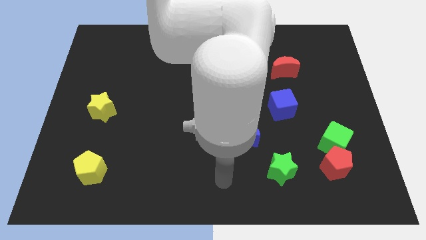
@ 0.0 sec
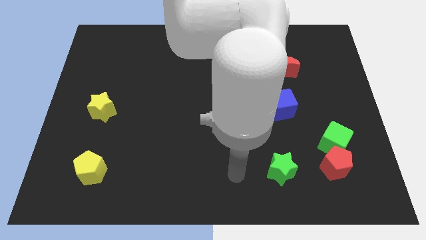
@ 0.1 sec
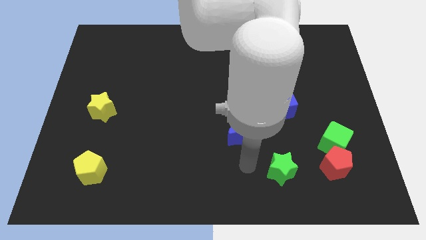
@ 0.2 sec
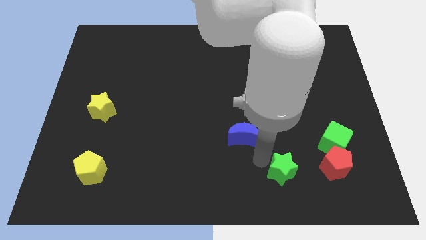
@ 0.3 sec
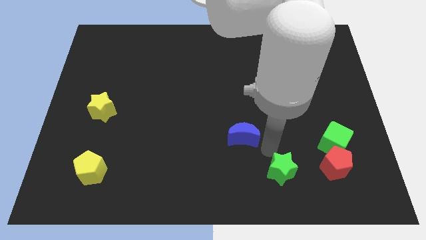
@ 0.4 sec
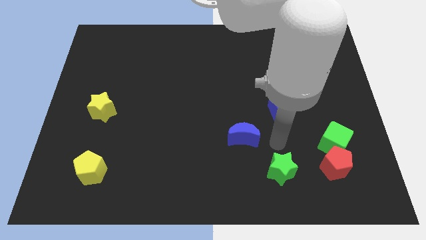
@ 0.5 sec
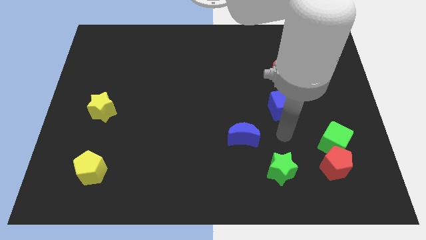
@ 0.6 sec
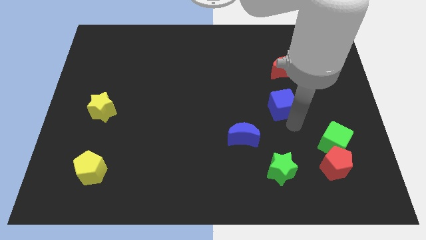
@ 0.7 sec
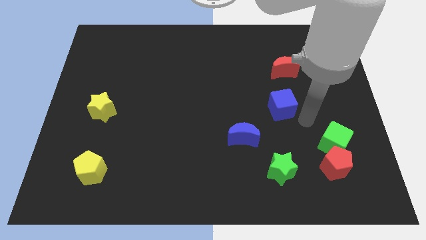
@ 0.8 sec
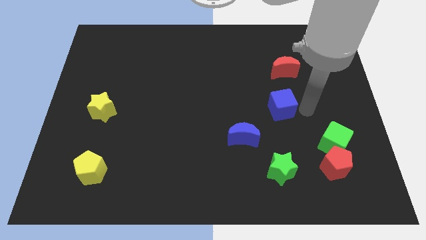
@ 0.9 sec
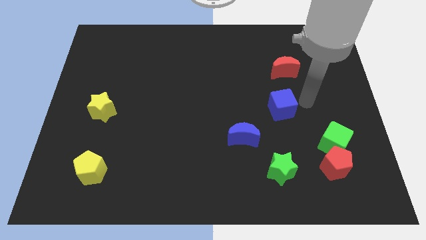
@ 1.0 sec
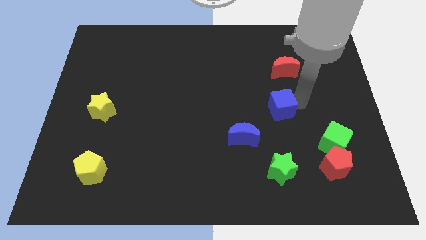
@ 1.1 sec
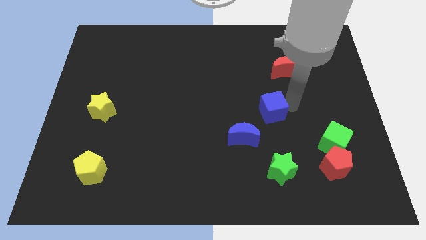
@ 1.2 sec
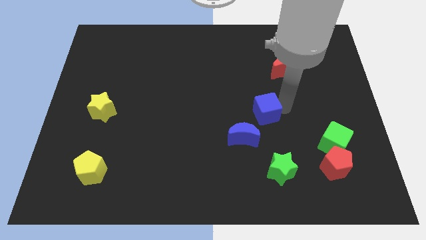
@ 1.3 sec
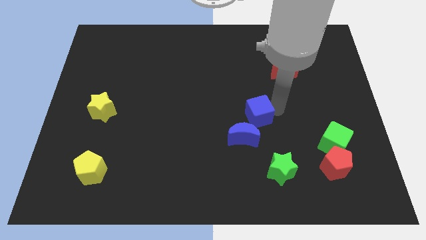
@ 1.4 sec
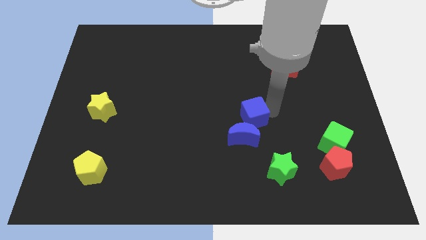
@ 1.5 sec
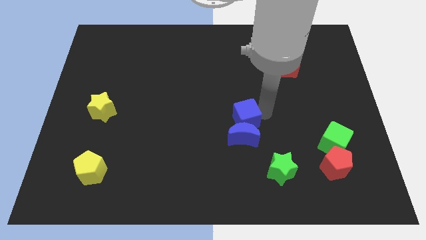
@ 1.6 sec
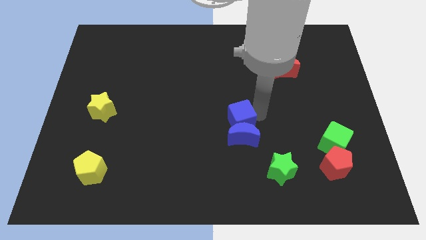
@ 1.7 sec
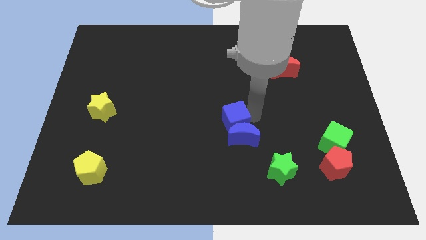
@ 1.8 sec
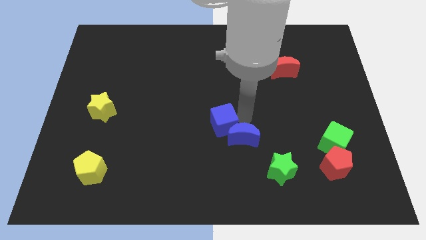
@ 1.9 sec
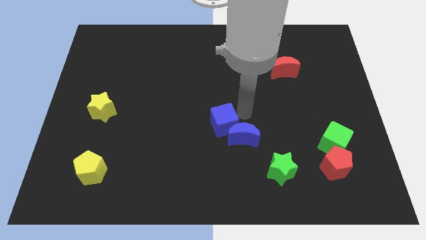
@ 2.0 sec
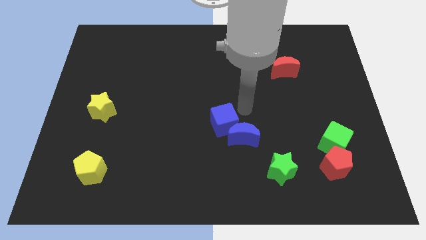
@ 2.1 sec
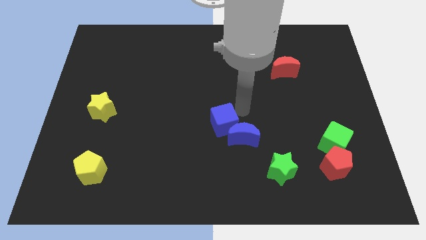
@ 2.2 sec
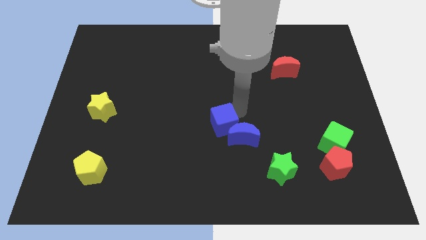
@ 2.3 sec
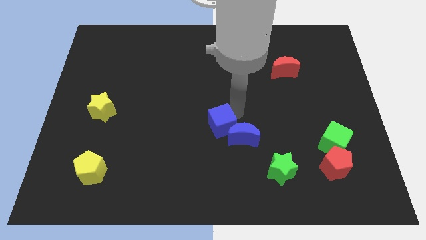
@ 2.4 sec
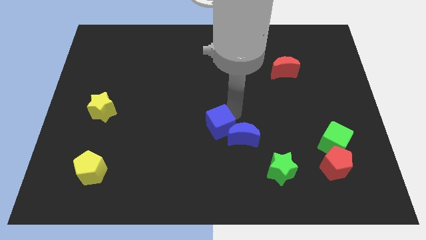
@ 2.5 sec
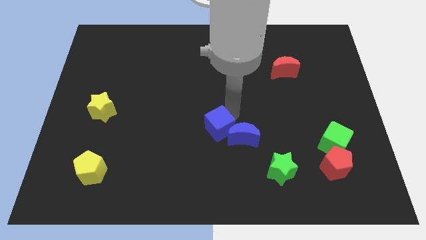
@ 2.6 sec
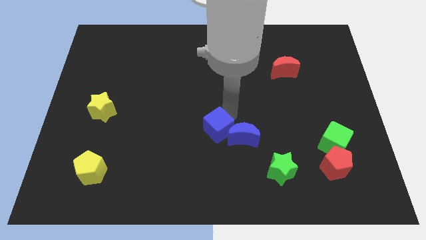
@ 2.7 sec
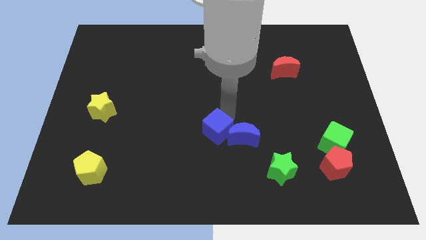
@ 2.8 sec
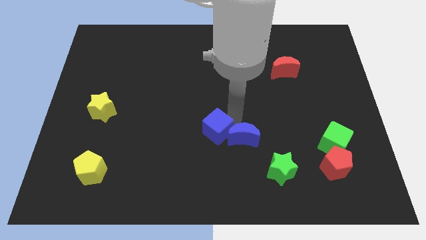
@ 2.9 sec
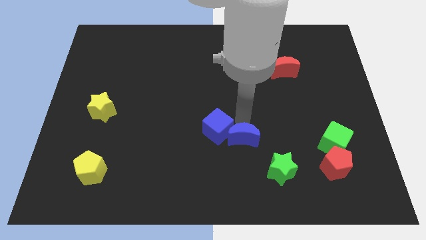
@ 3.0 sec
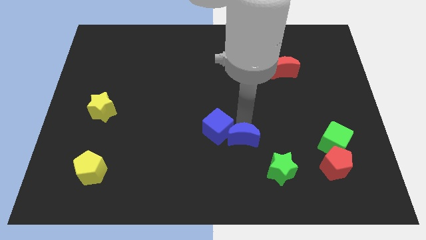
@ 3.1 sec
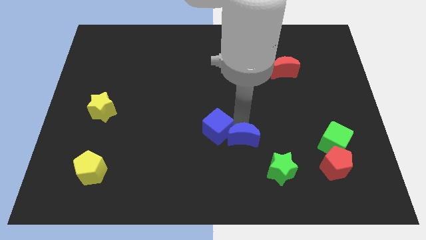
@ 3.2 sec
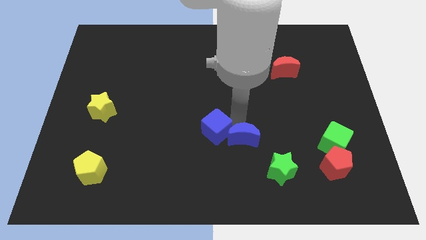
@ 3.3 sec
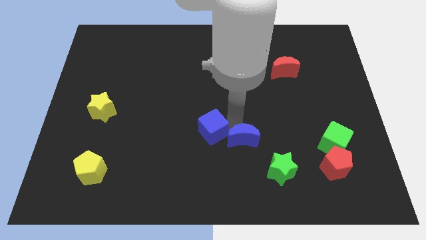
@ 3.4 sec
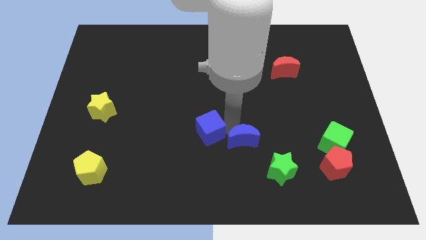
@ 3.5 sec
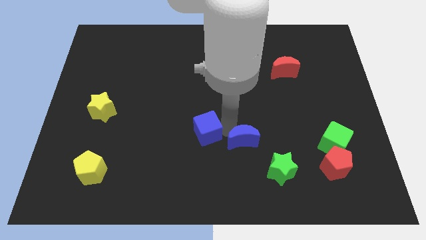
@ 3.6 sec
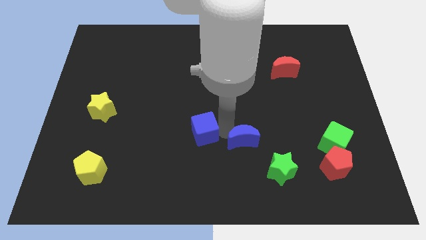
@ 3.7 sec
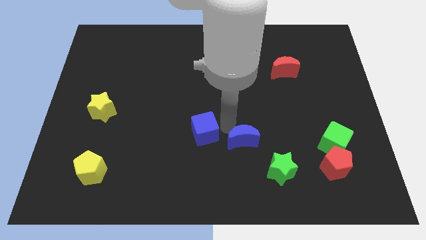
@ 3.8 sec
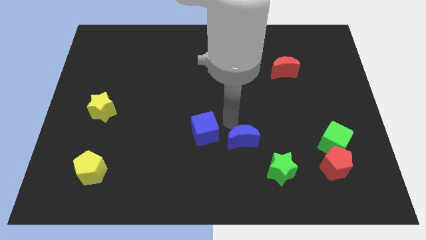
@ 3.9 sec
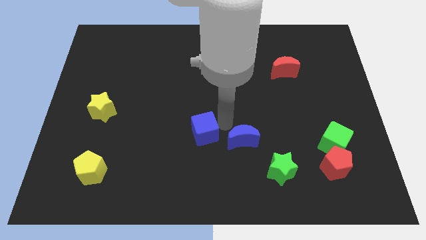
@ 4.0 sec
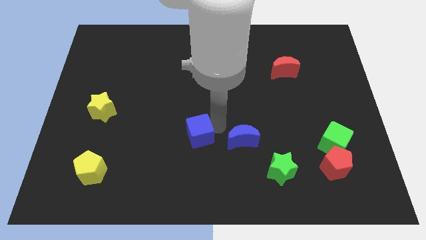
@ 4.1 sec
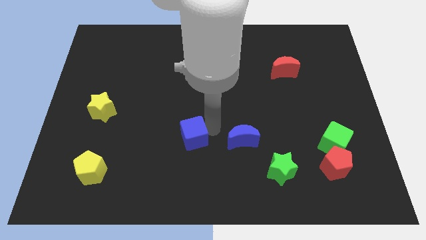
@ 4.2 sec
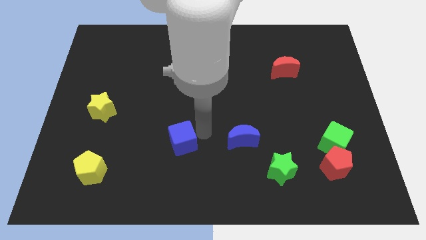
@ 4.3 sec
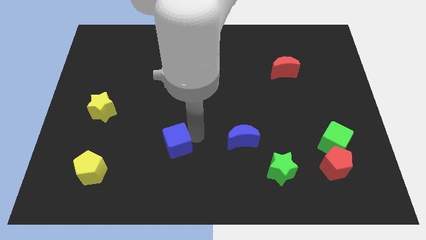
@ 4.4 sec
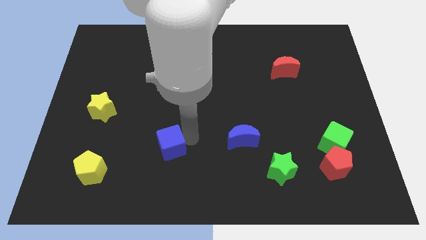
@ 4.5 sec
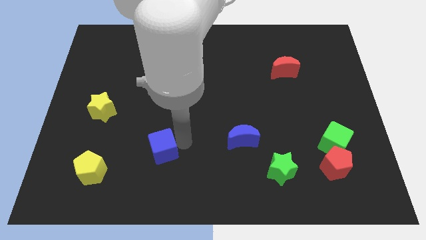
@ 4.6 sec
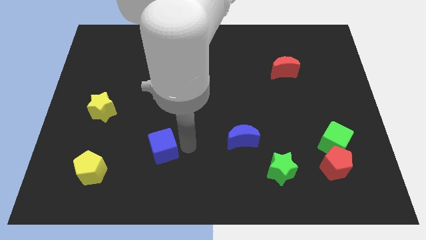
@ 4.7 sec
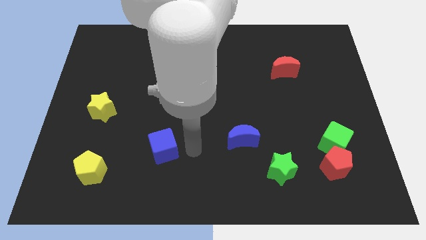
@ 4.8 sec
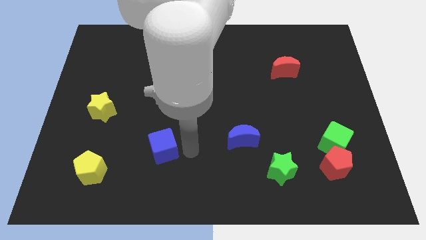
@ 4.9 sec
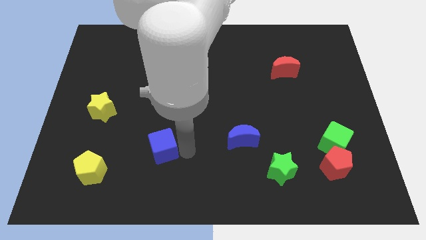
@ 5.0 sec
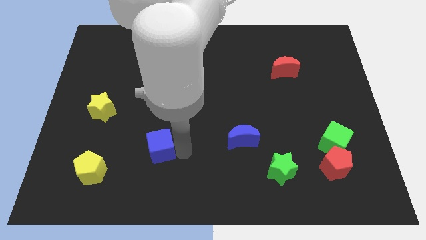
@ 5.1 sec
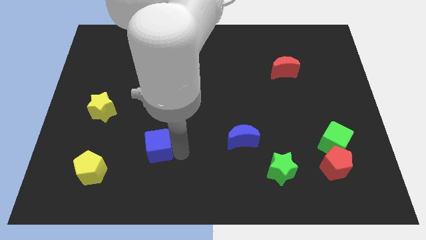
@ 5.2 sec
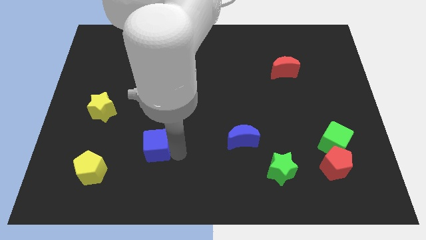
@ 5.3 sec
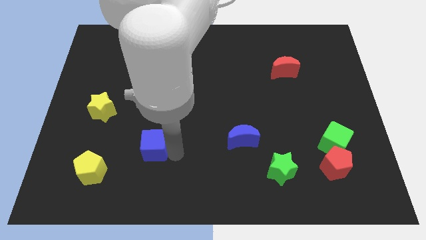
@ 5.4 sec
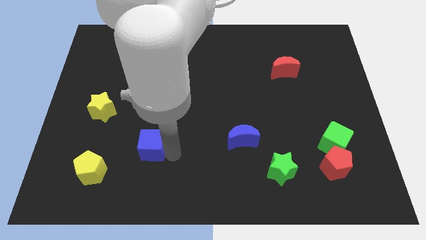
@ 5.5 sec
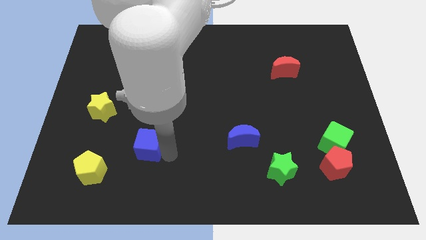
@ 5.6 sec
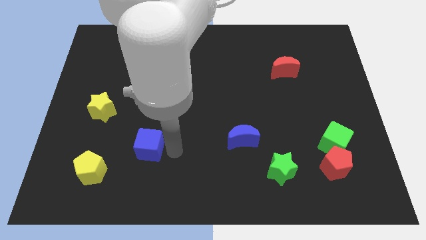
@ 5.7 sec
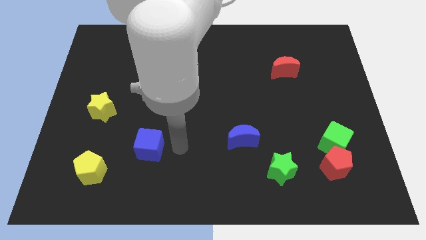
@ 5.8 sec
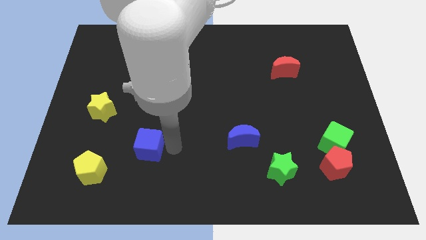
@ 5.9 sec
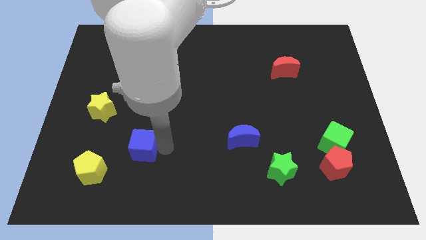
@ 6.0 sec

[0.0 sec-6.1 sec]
push the blue cube diagonally up and to the right of the yellow pentagon

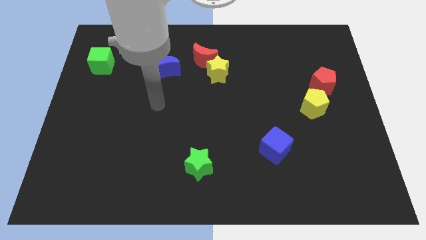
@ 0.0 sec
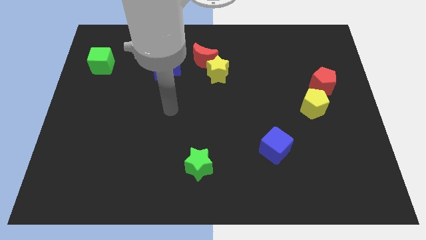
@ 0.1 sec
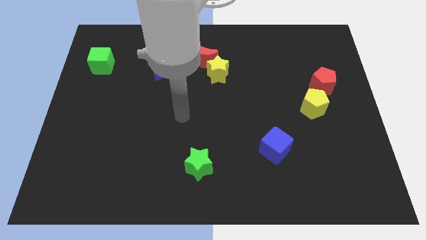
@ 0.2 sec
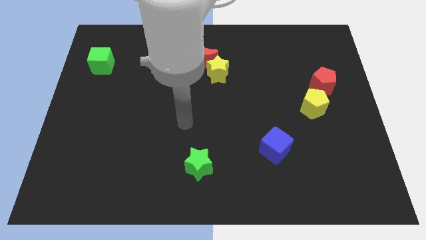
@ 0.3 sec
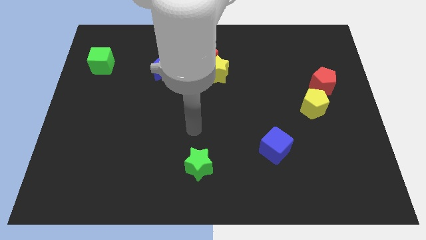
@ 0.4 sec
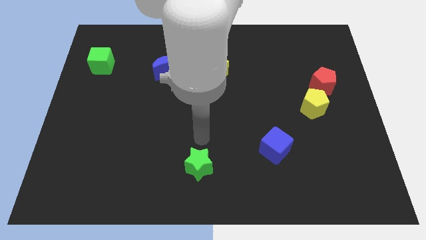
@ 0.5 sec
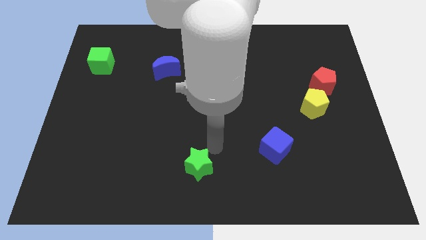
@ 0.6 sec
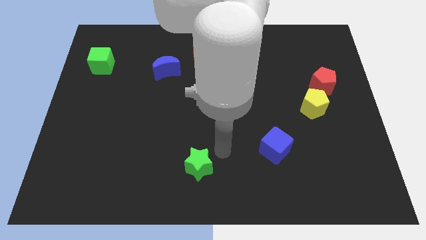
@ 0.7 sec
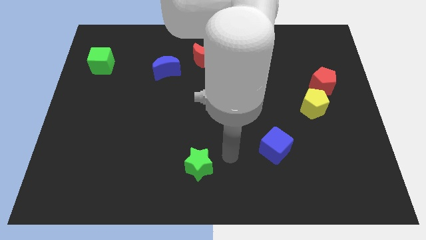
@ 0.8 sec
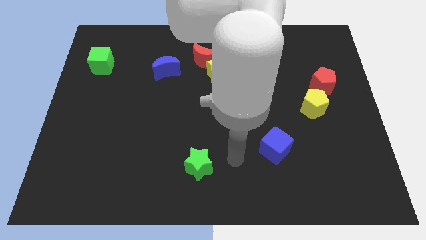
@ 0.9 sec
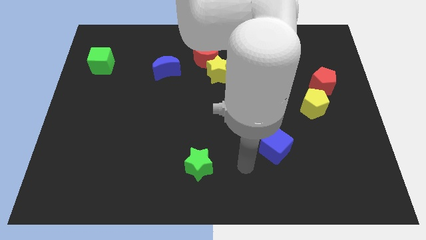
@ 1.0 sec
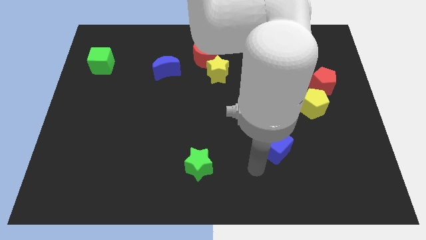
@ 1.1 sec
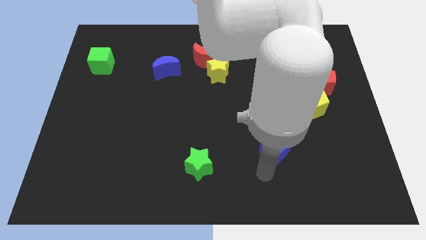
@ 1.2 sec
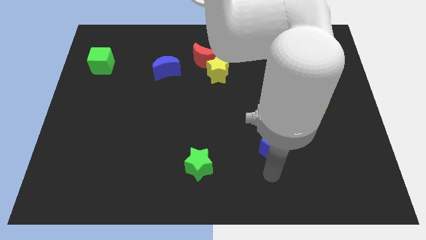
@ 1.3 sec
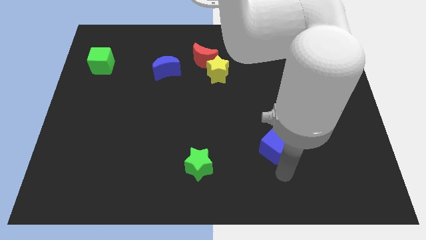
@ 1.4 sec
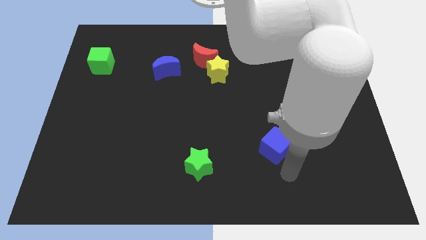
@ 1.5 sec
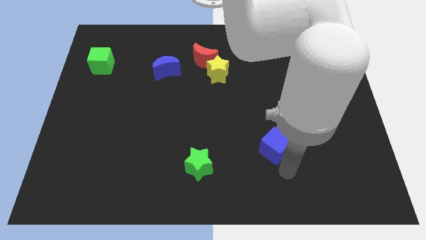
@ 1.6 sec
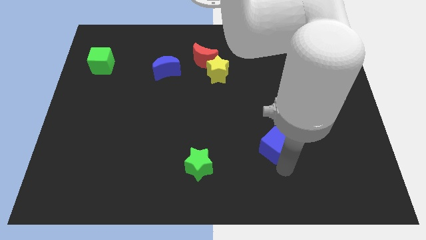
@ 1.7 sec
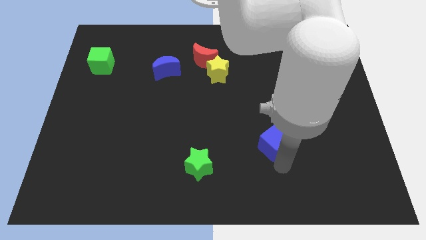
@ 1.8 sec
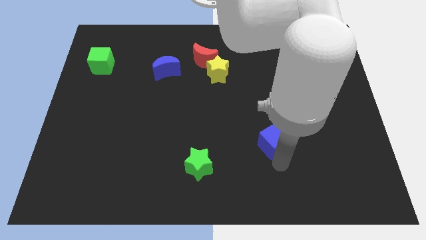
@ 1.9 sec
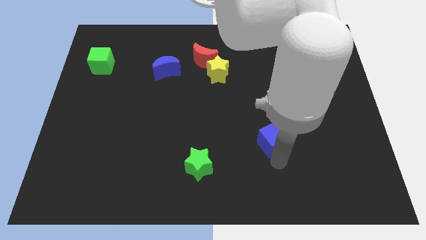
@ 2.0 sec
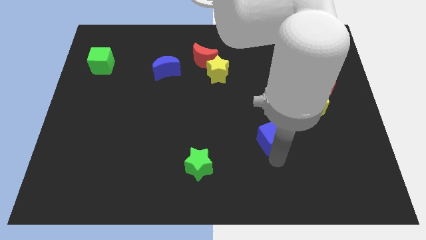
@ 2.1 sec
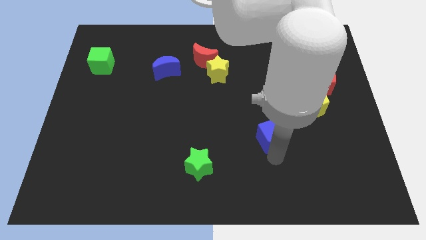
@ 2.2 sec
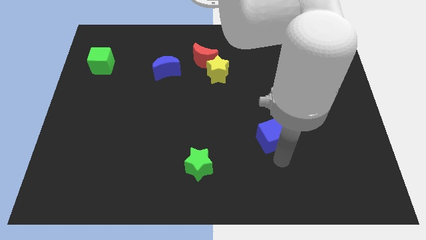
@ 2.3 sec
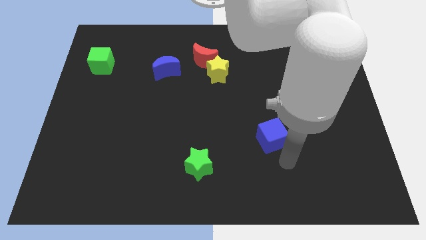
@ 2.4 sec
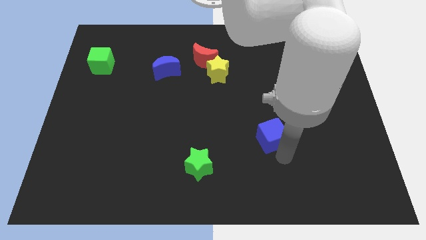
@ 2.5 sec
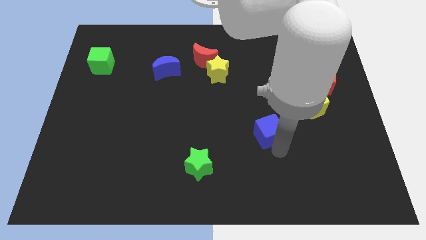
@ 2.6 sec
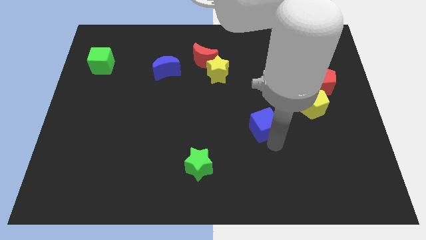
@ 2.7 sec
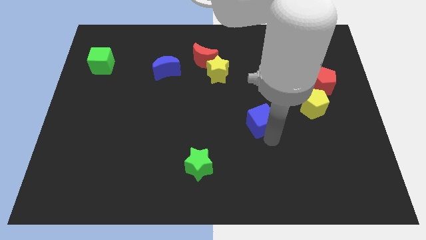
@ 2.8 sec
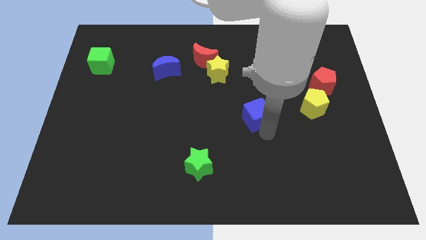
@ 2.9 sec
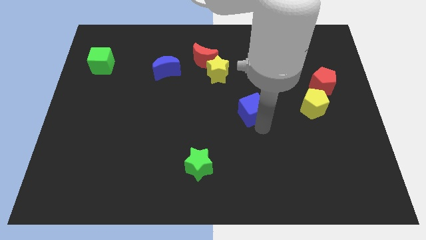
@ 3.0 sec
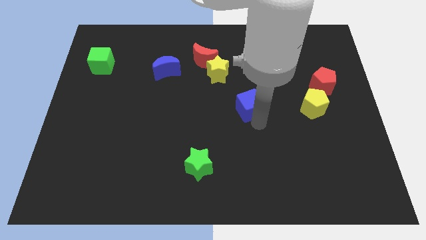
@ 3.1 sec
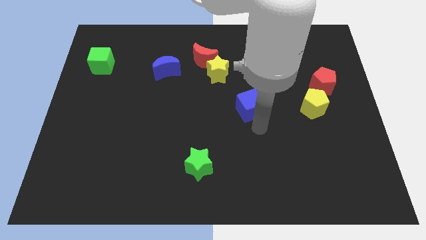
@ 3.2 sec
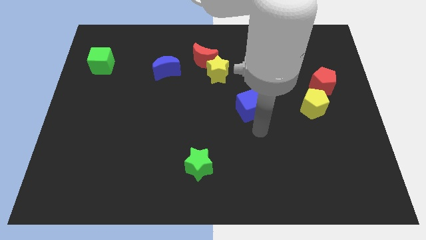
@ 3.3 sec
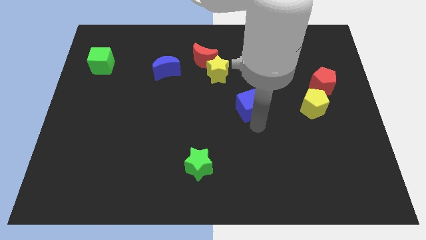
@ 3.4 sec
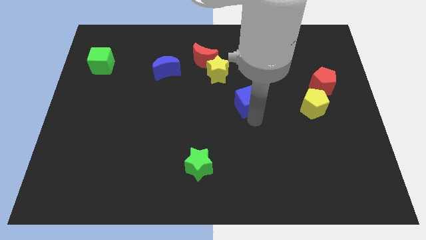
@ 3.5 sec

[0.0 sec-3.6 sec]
push the blue cube to the bottom right side of the yellow star
